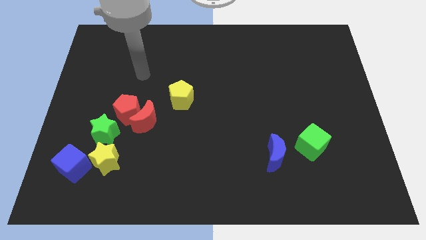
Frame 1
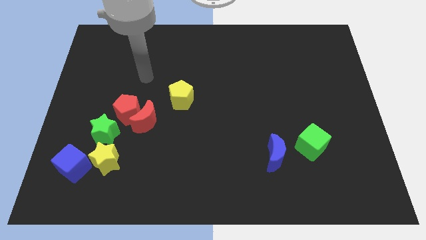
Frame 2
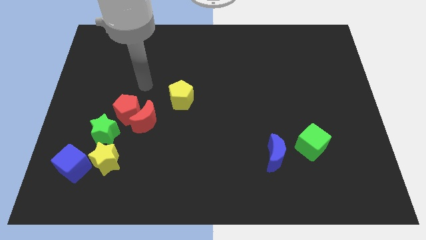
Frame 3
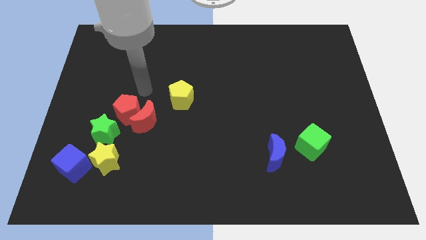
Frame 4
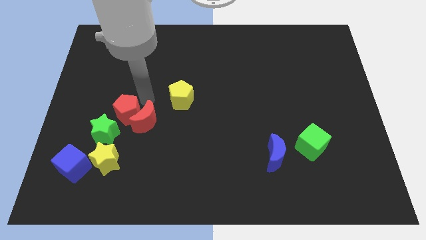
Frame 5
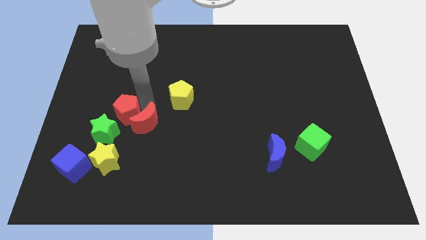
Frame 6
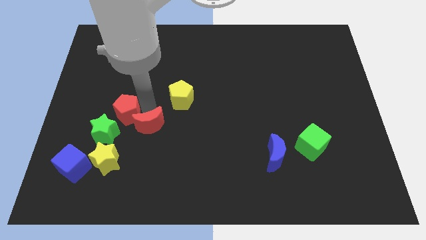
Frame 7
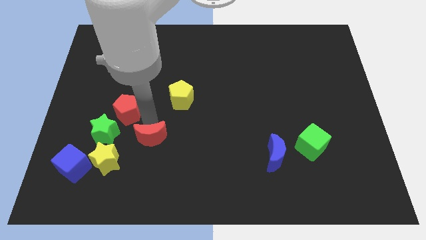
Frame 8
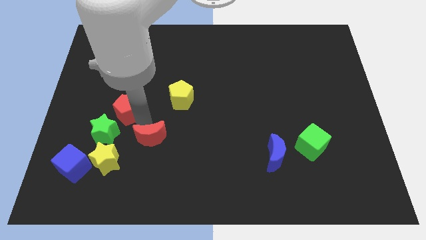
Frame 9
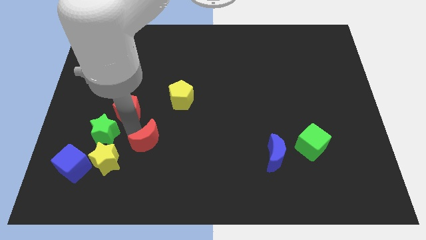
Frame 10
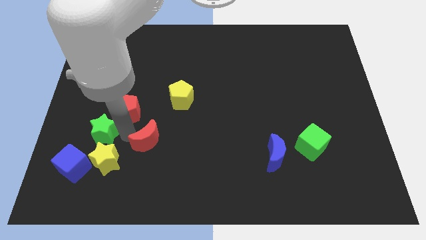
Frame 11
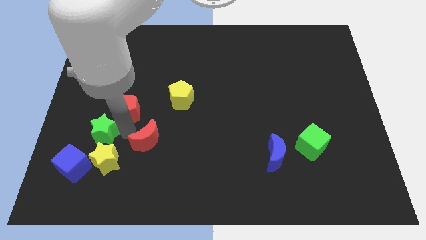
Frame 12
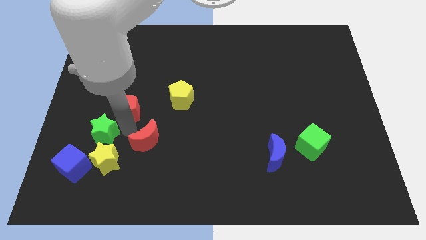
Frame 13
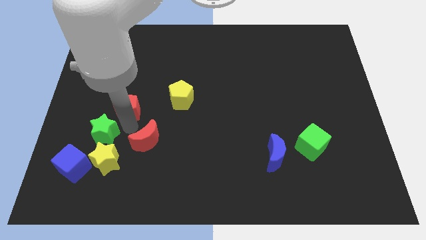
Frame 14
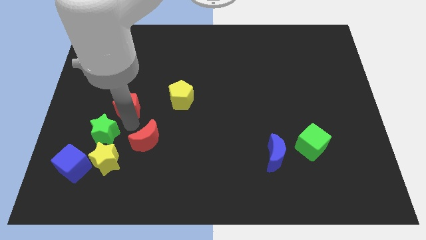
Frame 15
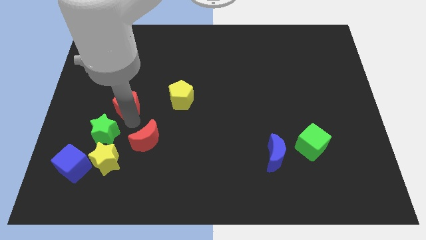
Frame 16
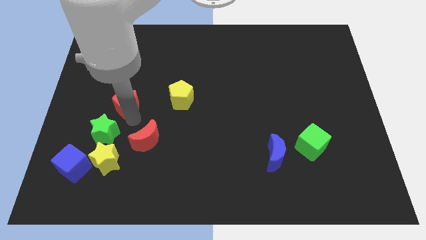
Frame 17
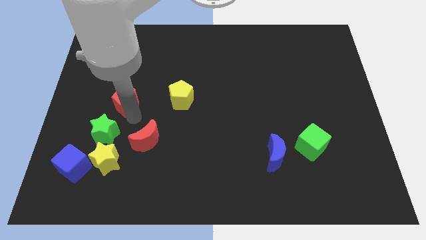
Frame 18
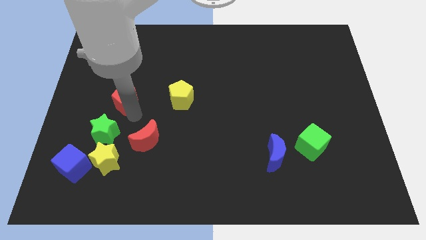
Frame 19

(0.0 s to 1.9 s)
pull the red pentagon apart from the red moon and green star

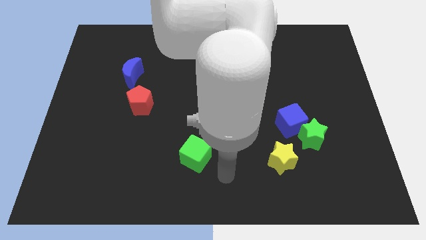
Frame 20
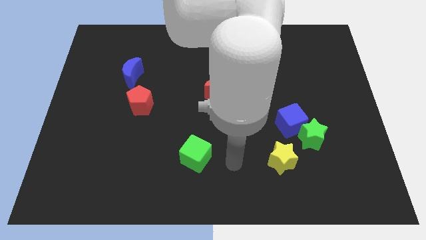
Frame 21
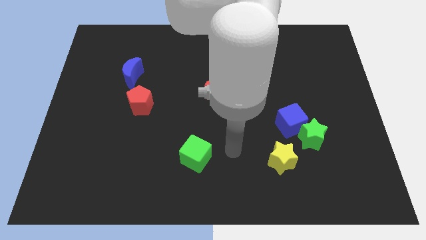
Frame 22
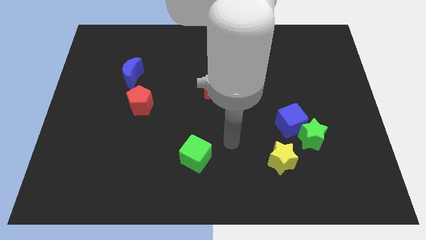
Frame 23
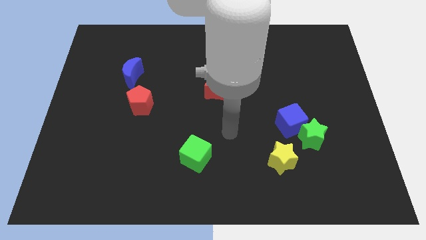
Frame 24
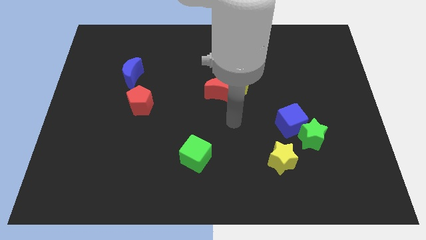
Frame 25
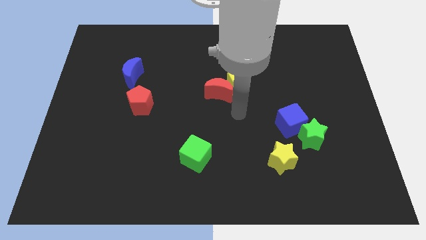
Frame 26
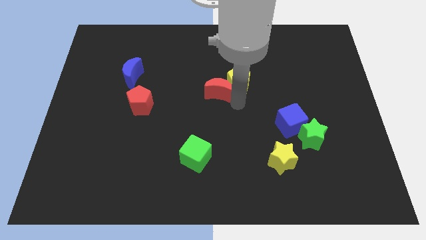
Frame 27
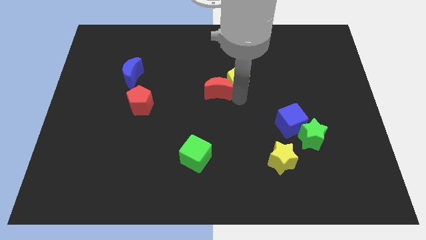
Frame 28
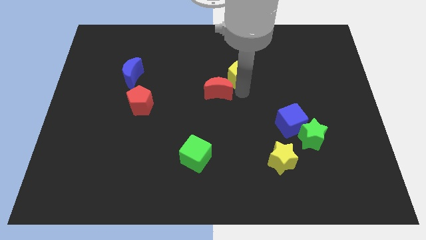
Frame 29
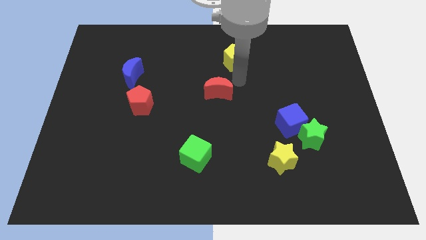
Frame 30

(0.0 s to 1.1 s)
separate the red moon from the yellow pentagon

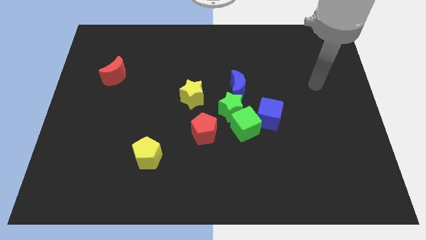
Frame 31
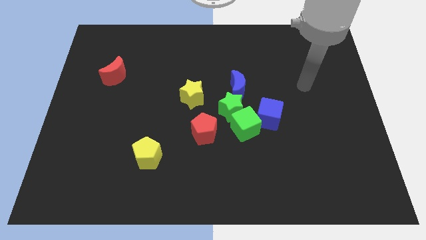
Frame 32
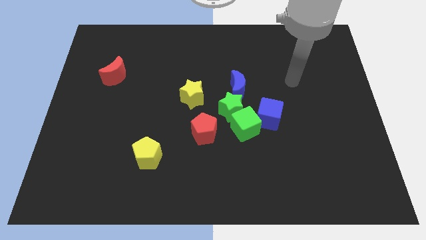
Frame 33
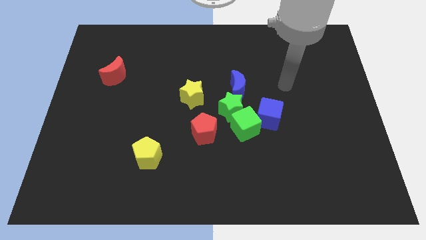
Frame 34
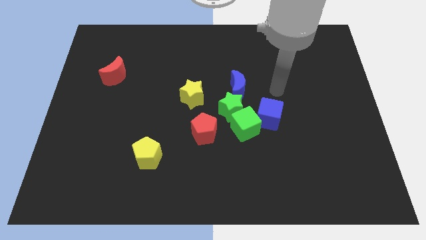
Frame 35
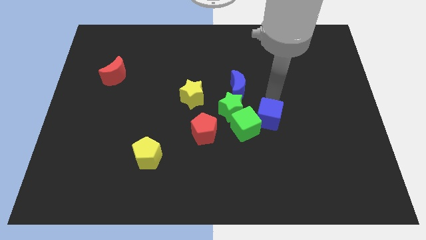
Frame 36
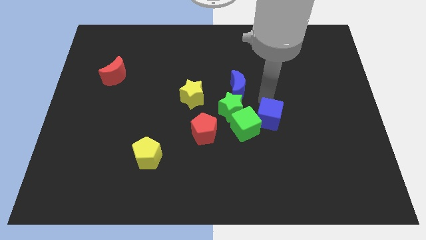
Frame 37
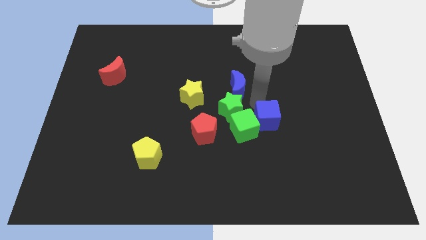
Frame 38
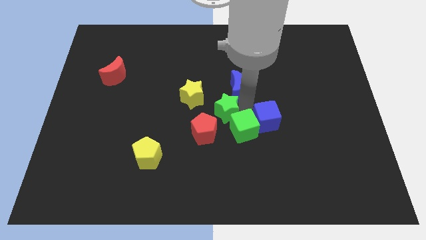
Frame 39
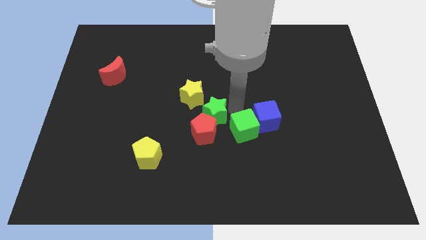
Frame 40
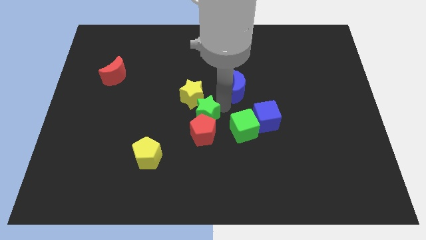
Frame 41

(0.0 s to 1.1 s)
pull the blue moon apart from the green star

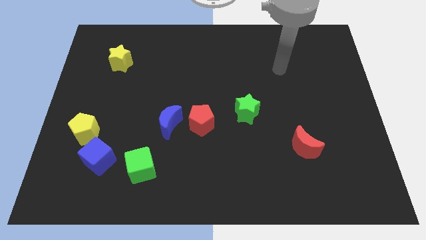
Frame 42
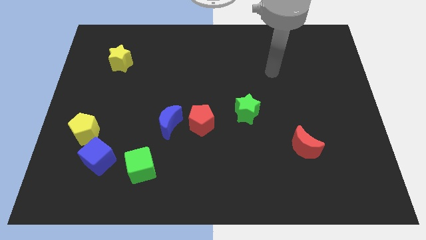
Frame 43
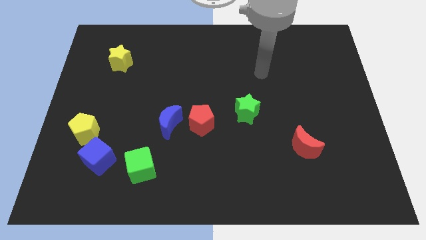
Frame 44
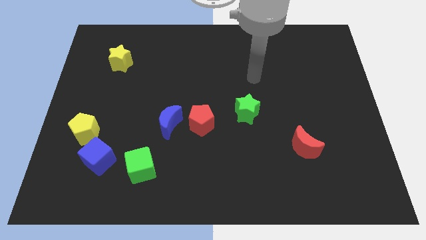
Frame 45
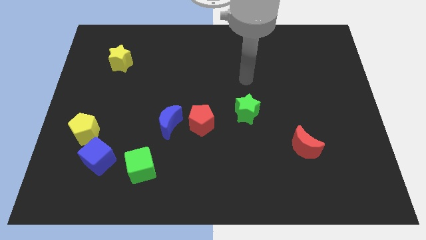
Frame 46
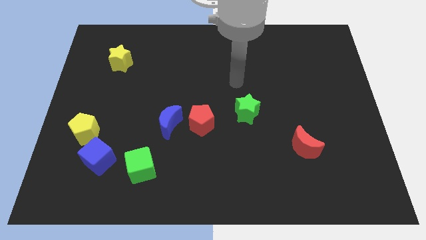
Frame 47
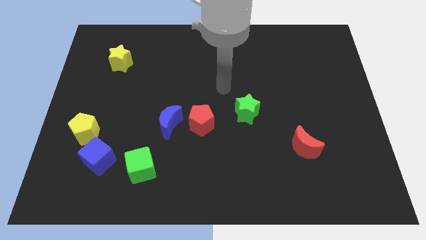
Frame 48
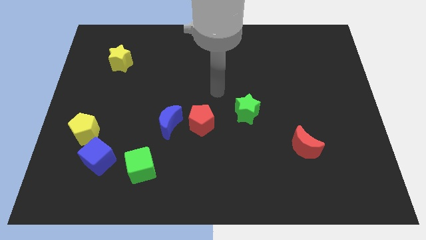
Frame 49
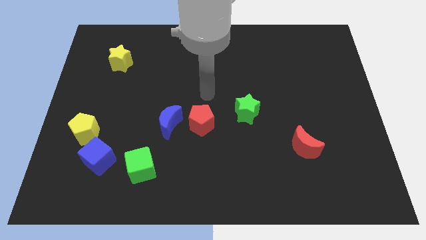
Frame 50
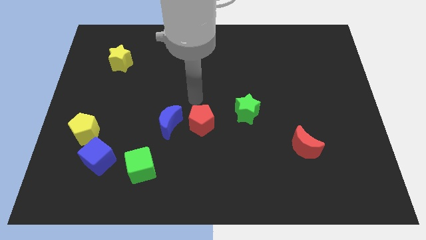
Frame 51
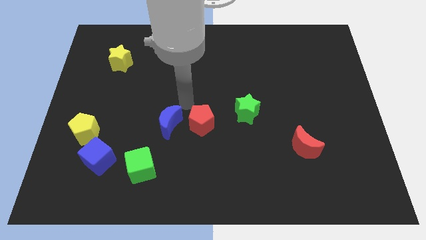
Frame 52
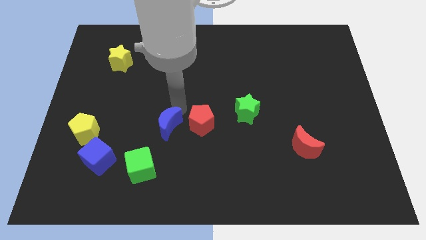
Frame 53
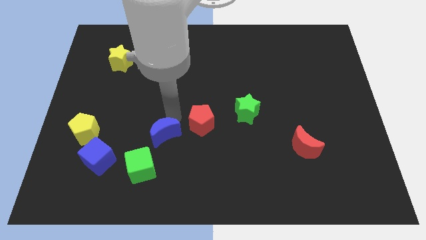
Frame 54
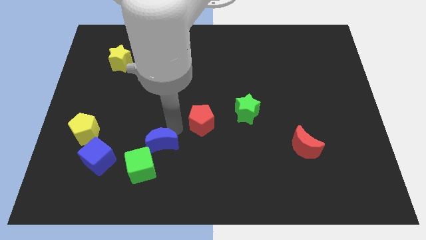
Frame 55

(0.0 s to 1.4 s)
separate the red pentagon from the blue moon

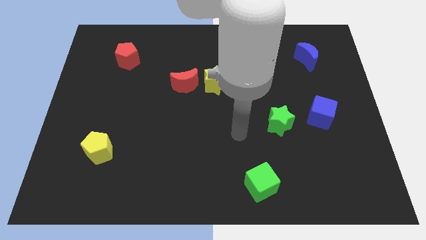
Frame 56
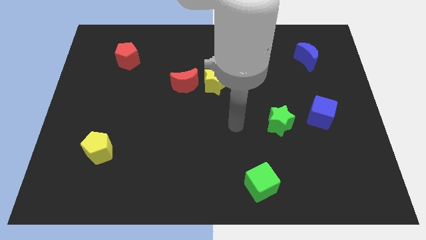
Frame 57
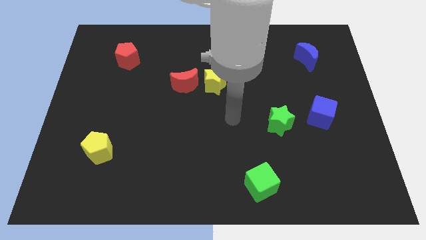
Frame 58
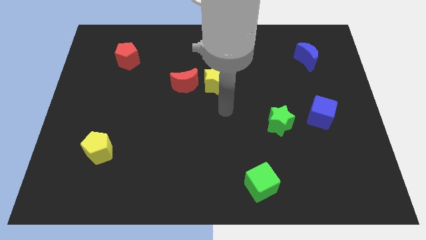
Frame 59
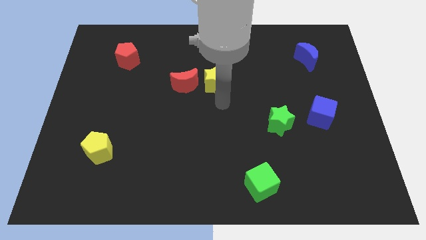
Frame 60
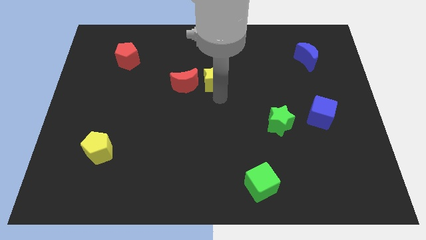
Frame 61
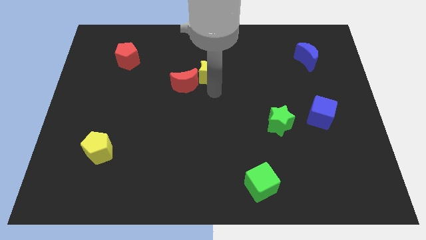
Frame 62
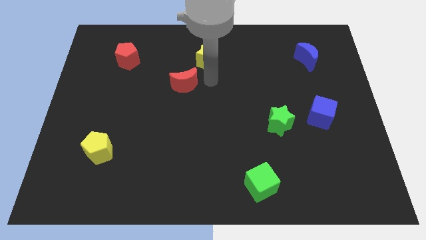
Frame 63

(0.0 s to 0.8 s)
pull the red moon apart from the yellow star

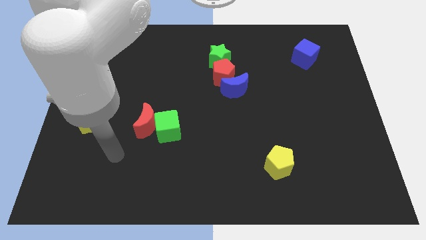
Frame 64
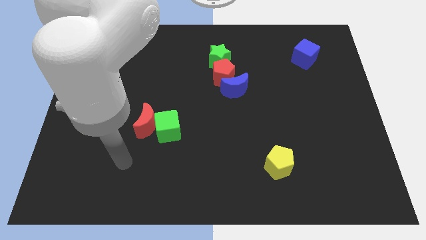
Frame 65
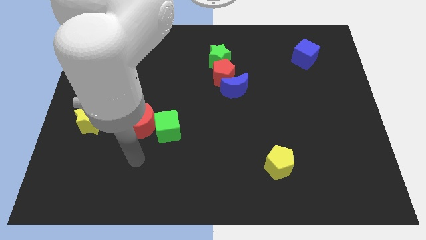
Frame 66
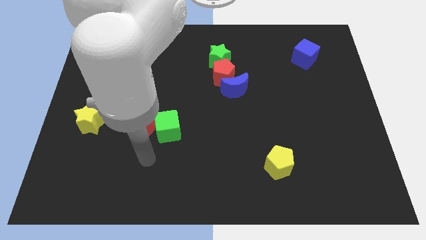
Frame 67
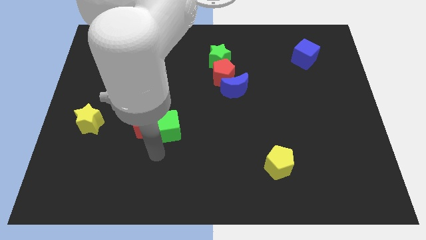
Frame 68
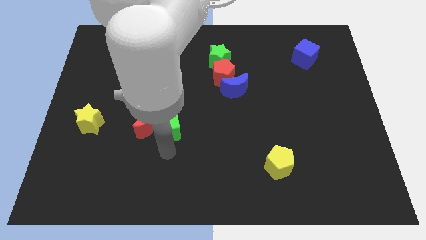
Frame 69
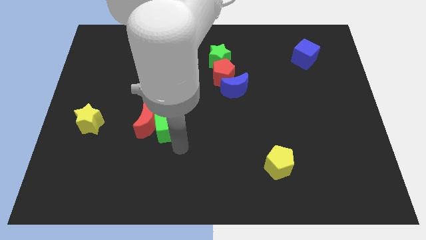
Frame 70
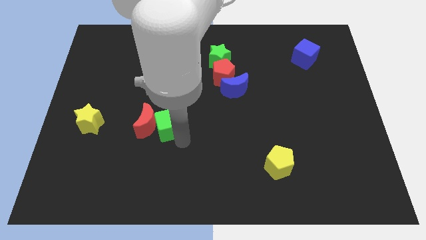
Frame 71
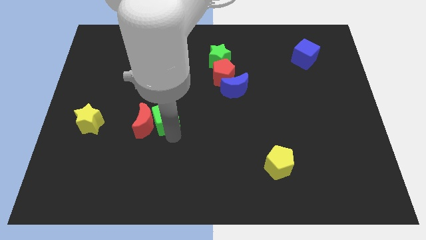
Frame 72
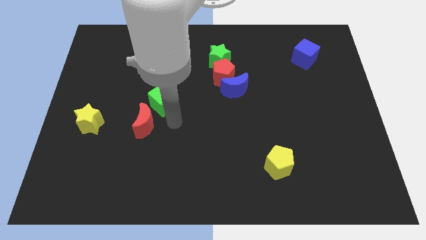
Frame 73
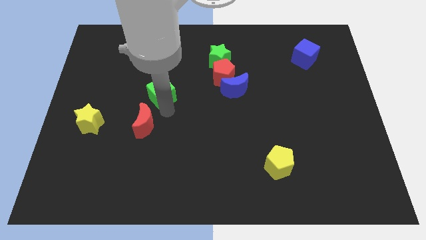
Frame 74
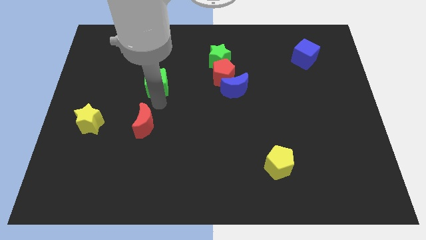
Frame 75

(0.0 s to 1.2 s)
move the red moon away from the green cube

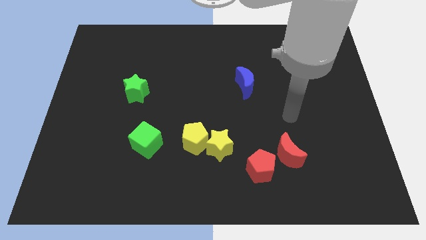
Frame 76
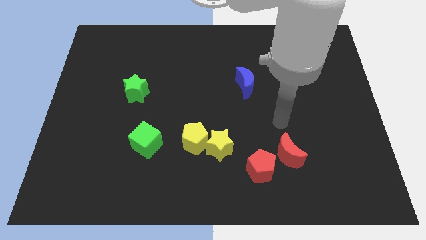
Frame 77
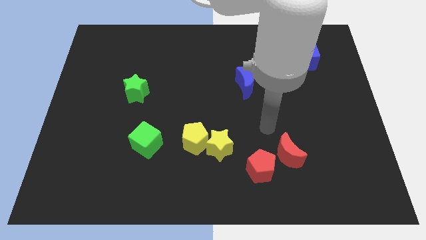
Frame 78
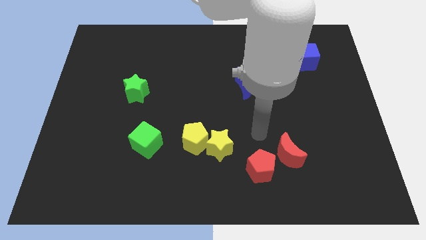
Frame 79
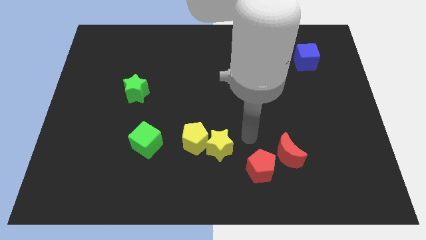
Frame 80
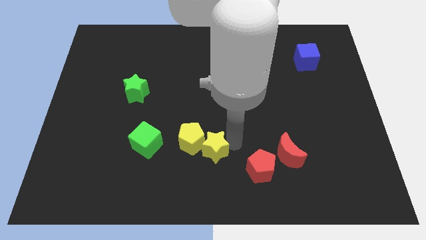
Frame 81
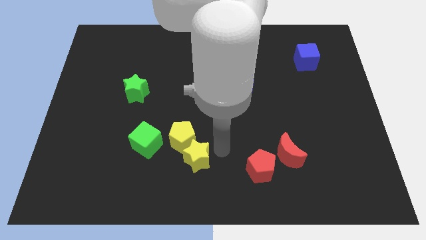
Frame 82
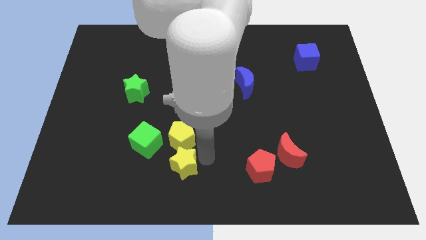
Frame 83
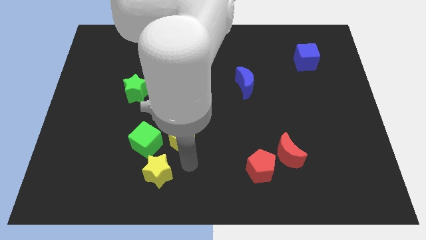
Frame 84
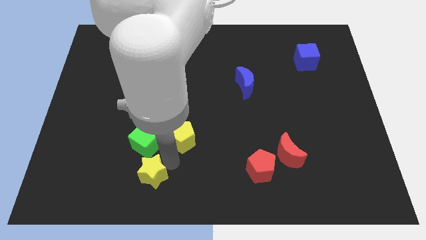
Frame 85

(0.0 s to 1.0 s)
move the yellow pentagon away from the yellow star

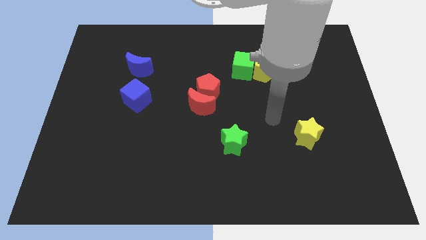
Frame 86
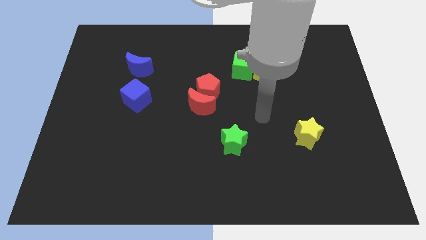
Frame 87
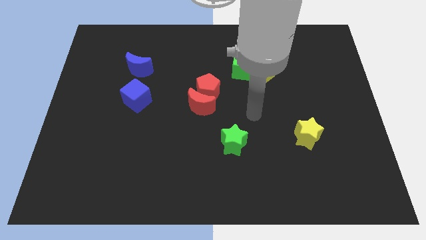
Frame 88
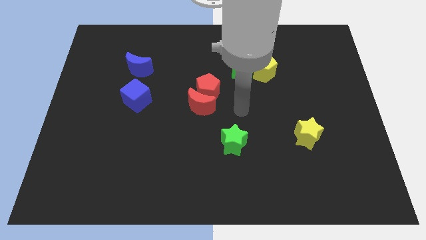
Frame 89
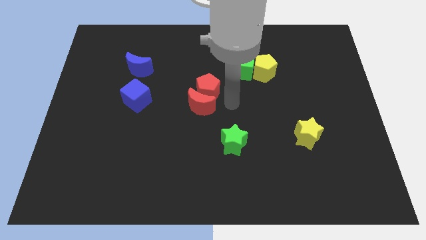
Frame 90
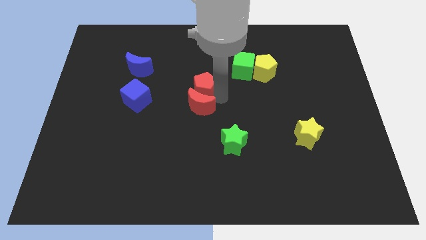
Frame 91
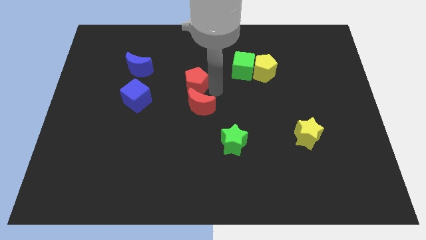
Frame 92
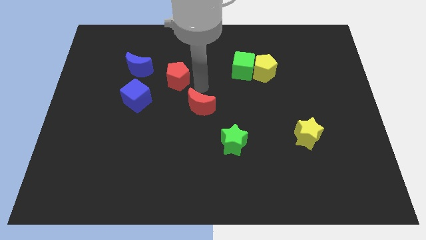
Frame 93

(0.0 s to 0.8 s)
separate the red moon from the red pentagon

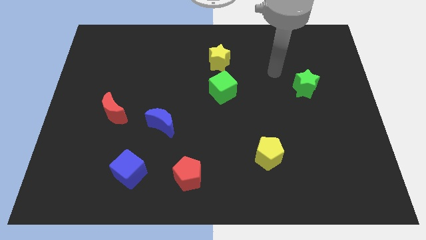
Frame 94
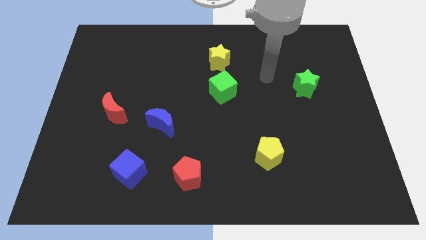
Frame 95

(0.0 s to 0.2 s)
separate the green cube from the yellow star
